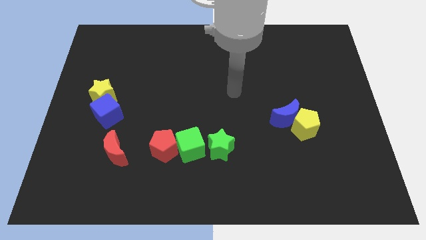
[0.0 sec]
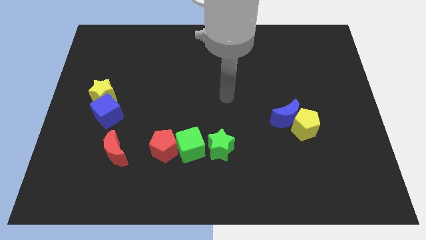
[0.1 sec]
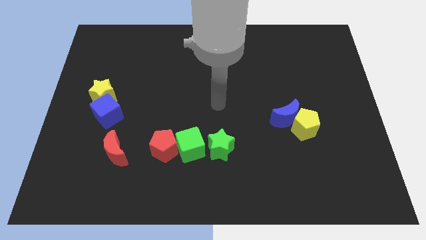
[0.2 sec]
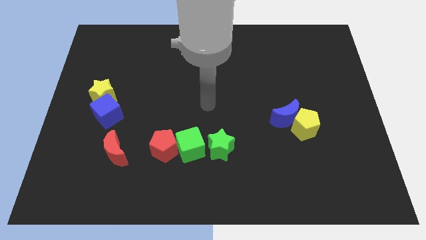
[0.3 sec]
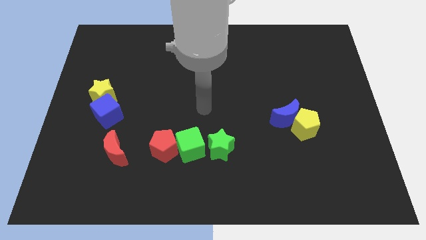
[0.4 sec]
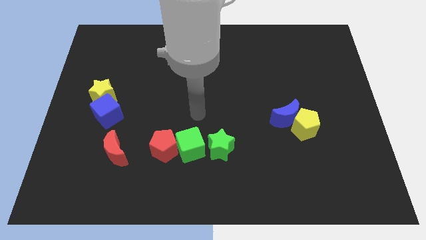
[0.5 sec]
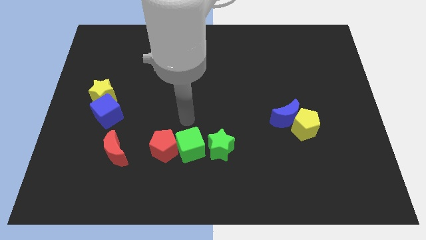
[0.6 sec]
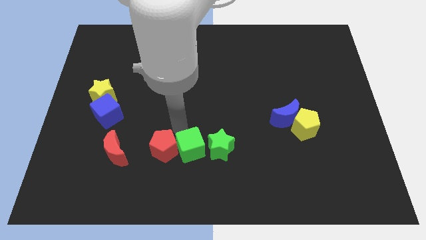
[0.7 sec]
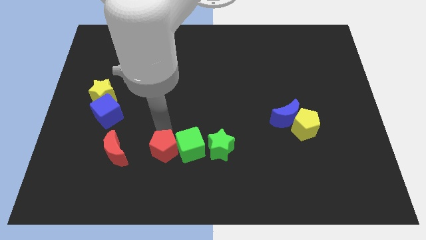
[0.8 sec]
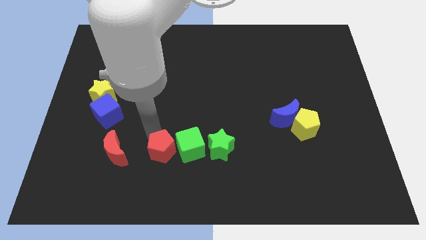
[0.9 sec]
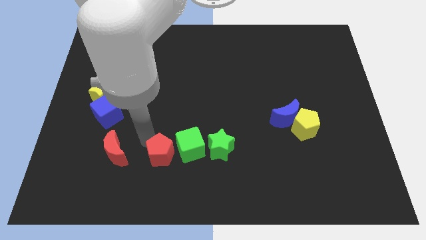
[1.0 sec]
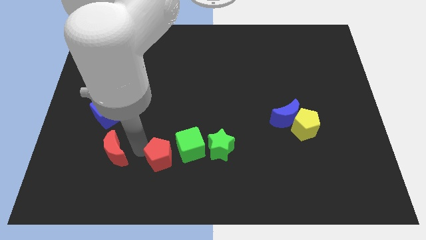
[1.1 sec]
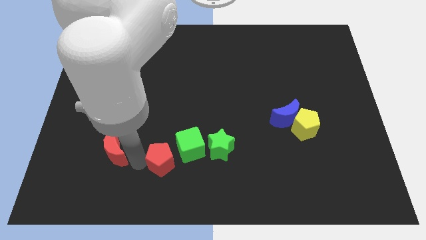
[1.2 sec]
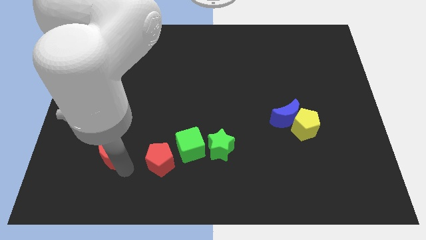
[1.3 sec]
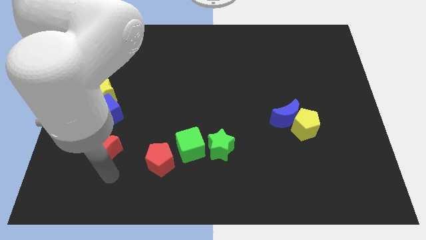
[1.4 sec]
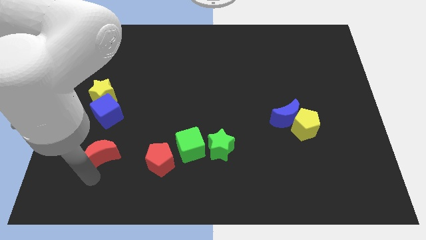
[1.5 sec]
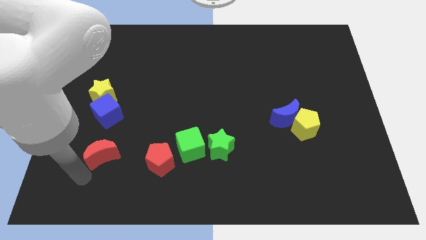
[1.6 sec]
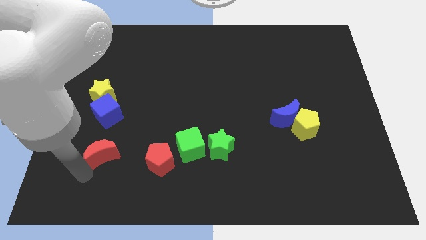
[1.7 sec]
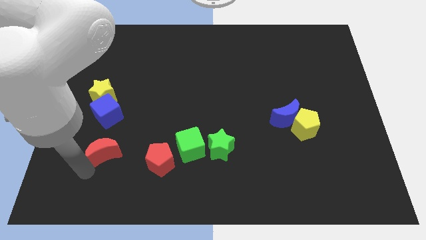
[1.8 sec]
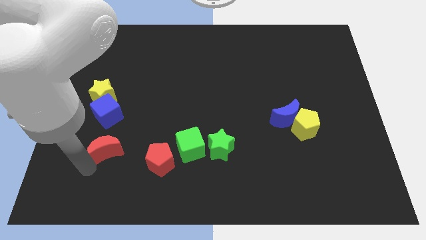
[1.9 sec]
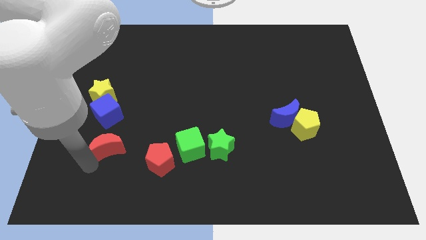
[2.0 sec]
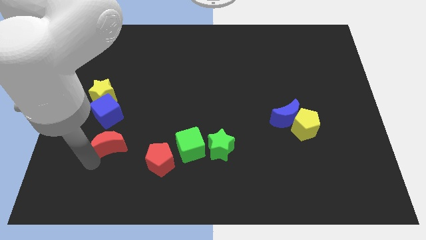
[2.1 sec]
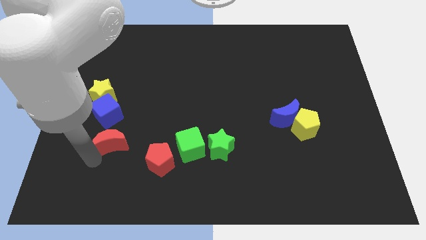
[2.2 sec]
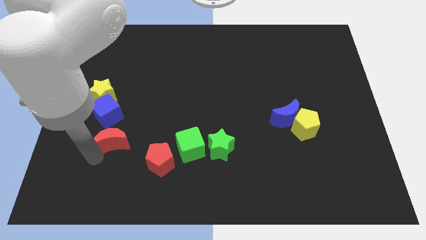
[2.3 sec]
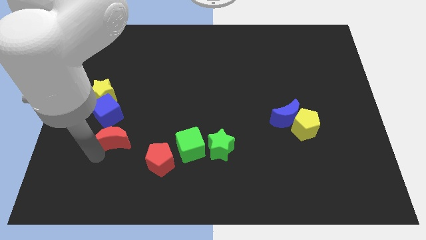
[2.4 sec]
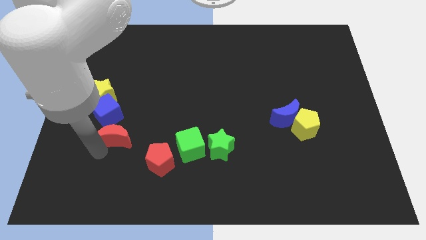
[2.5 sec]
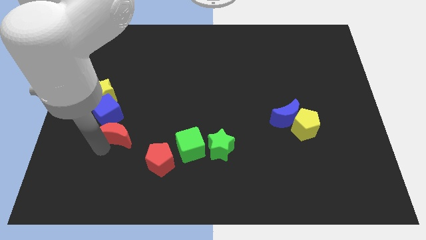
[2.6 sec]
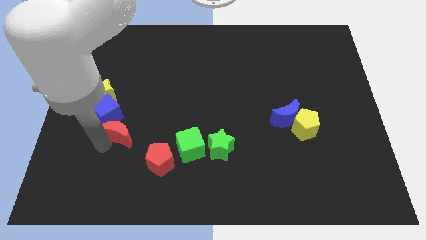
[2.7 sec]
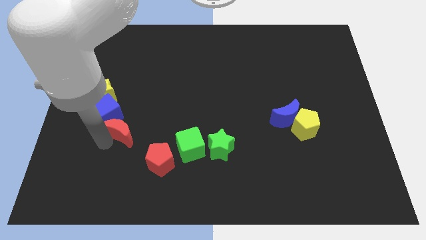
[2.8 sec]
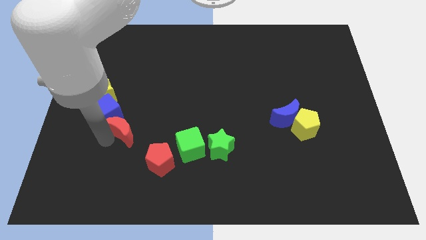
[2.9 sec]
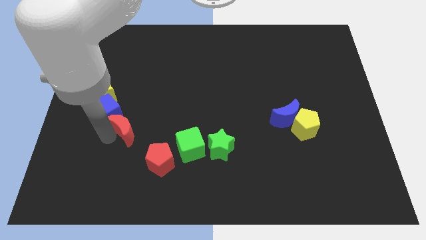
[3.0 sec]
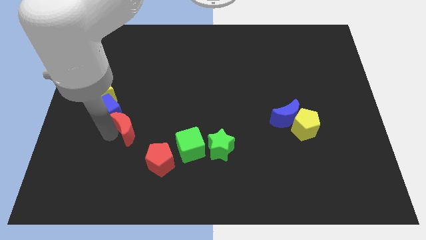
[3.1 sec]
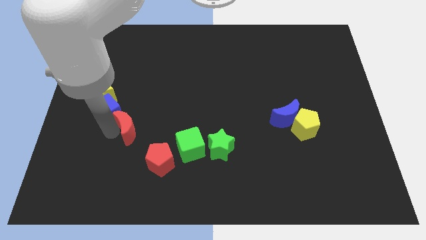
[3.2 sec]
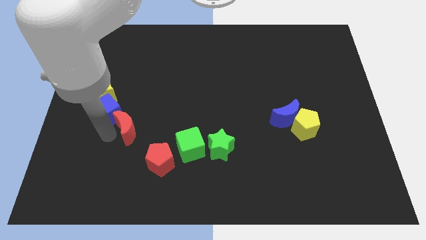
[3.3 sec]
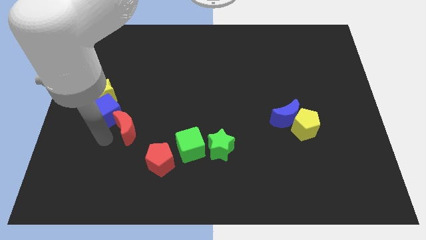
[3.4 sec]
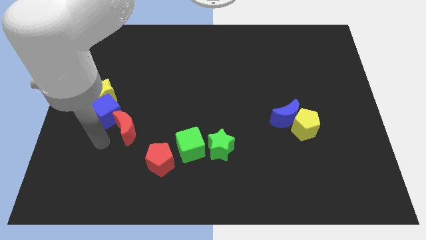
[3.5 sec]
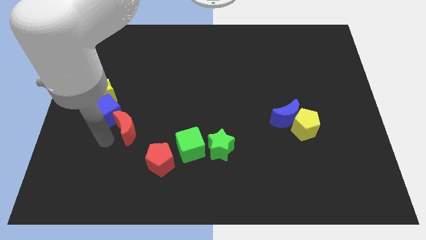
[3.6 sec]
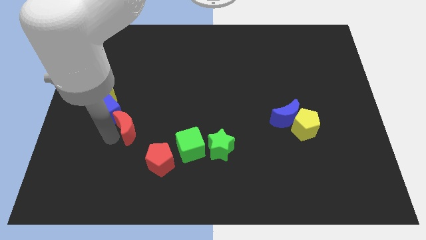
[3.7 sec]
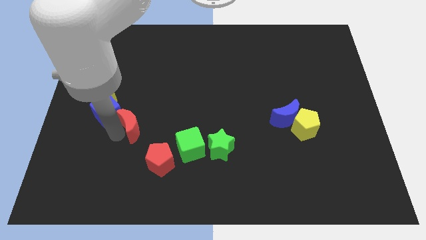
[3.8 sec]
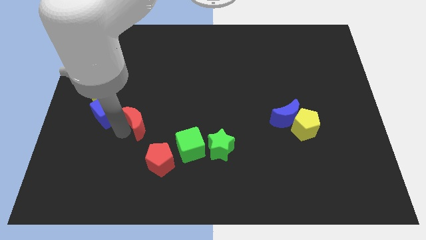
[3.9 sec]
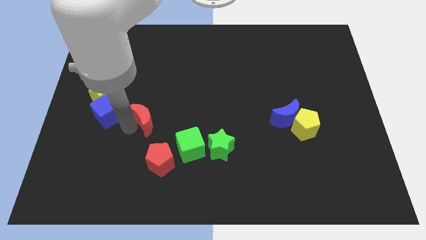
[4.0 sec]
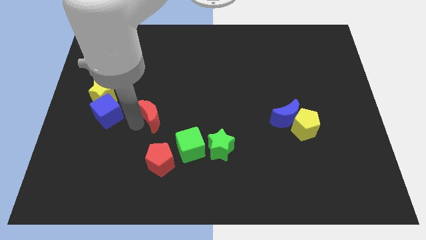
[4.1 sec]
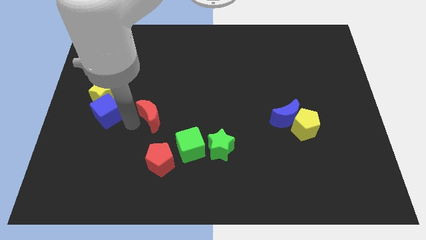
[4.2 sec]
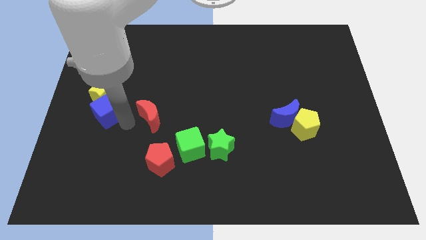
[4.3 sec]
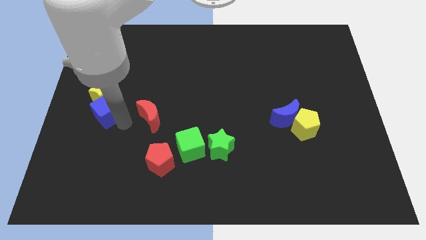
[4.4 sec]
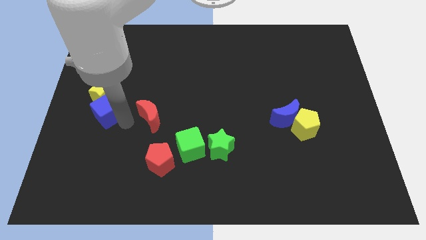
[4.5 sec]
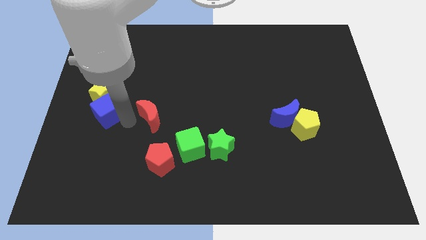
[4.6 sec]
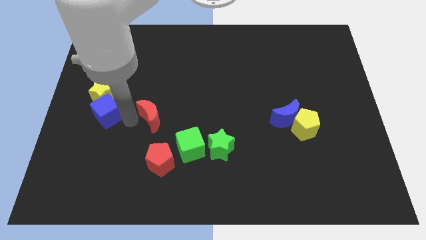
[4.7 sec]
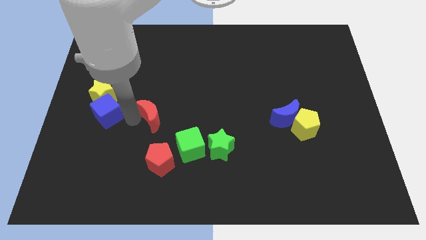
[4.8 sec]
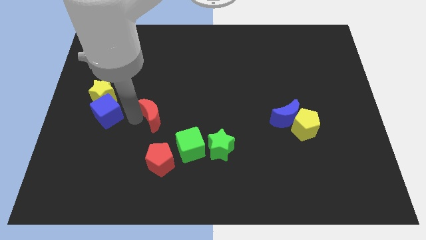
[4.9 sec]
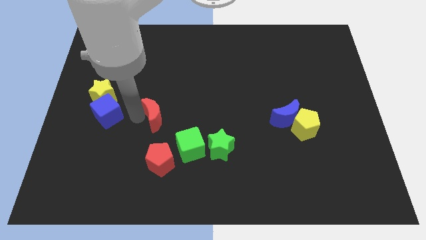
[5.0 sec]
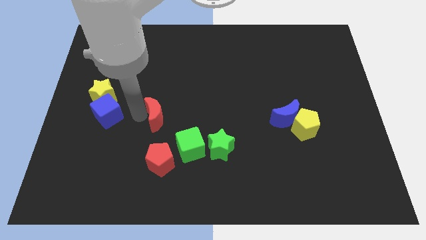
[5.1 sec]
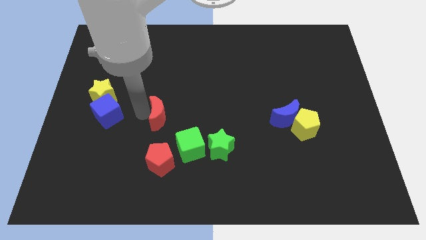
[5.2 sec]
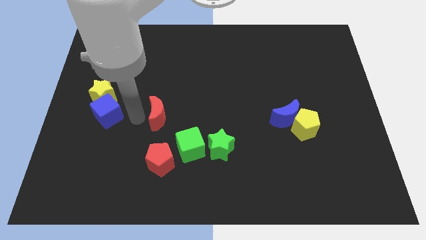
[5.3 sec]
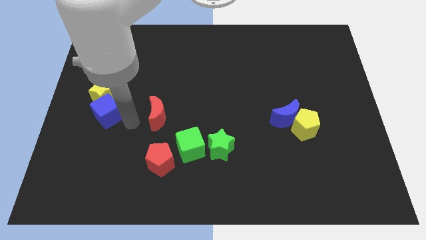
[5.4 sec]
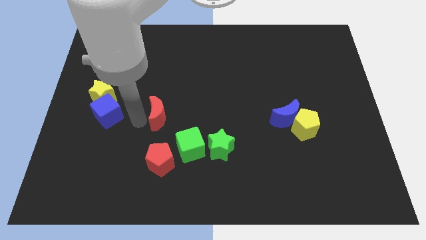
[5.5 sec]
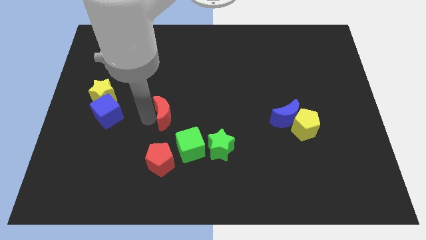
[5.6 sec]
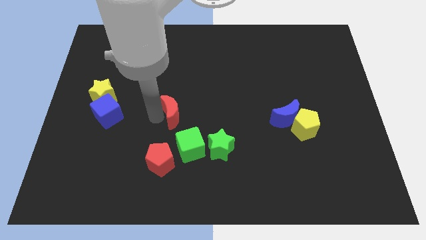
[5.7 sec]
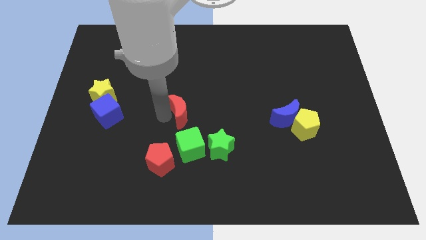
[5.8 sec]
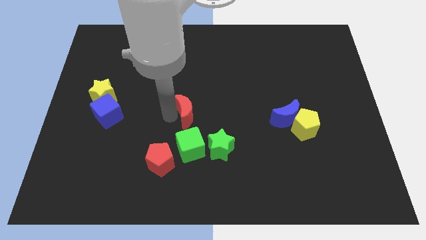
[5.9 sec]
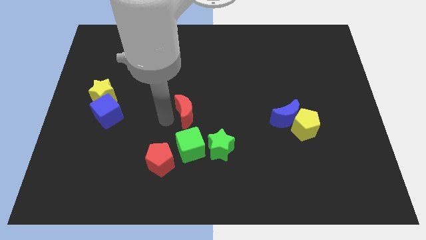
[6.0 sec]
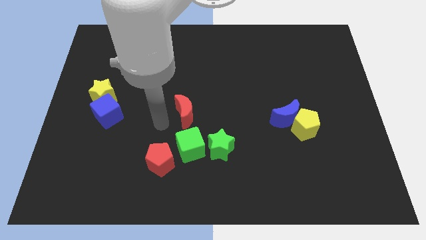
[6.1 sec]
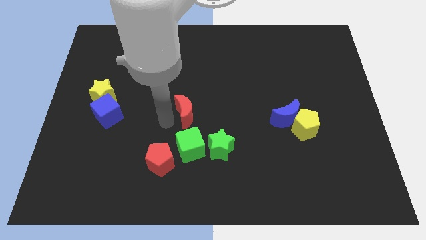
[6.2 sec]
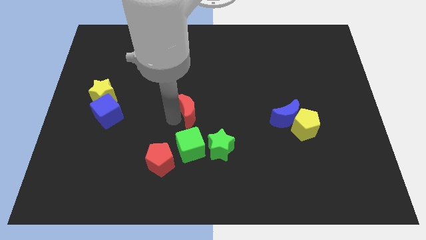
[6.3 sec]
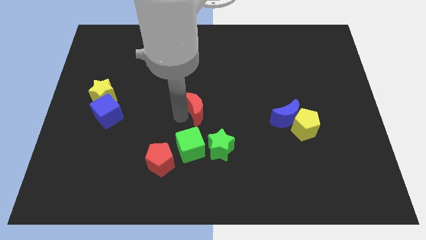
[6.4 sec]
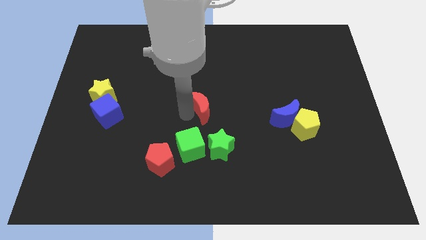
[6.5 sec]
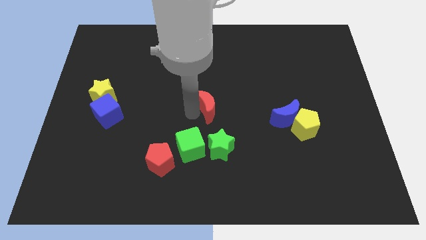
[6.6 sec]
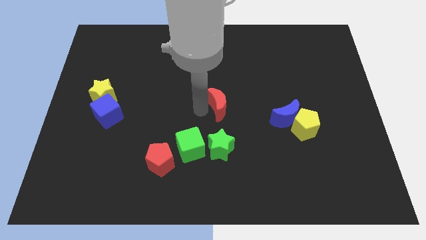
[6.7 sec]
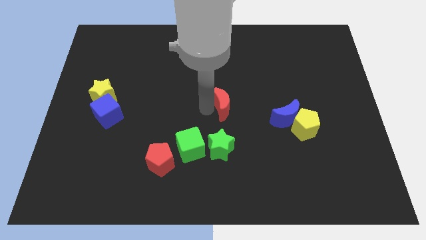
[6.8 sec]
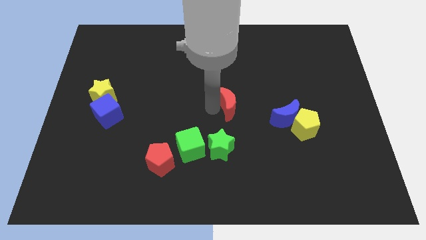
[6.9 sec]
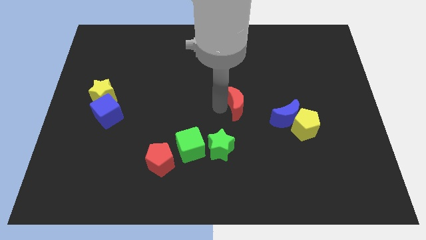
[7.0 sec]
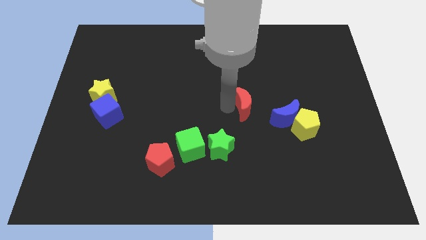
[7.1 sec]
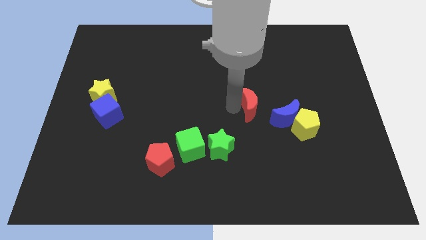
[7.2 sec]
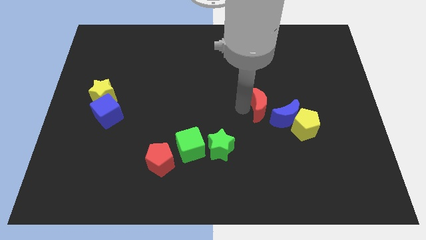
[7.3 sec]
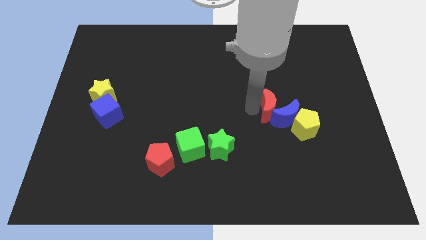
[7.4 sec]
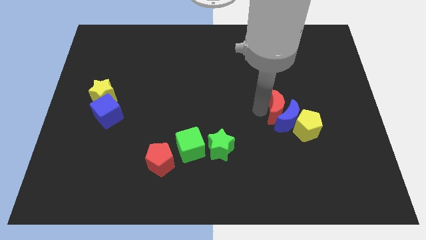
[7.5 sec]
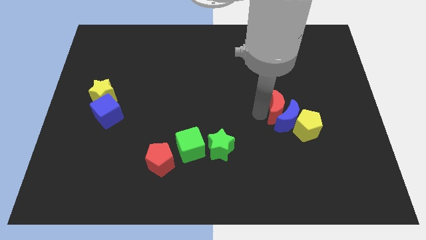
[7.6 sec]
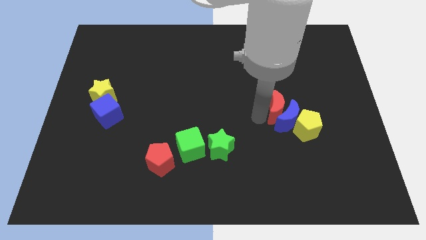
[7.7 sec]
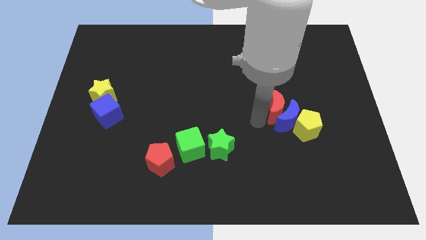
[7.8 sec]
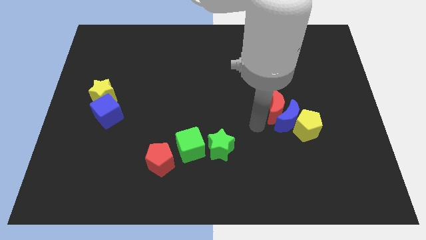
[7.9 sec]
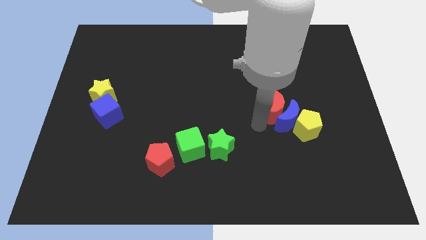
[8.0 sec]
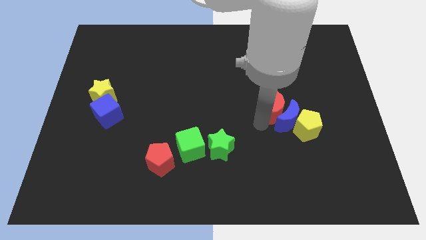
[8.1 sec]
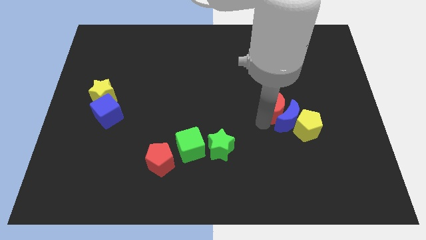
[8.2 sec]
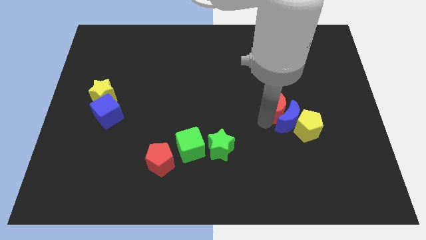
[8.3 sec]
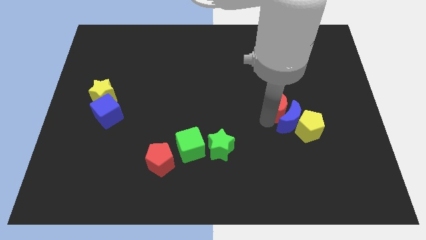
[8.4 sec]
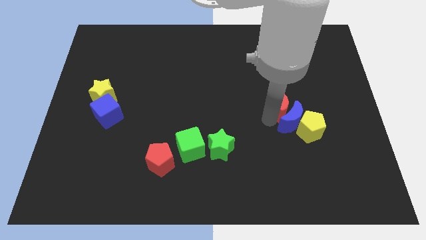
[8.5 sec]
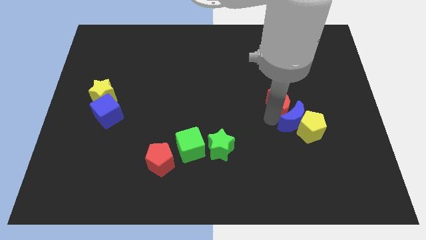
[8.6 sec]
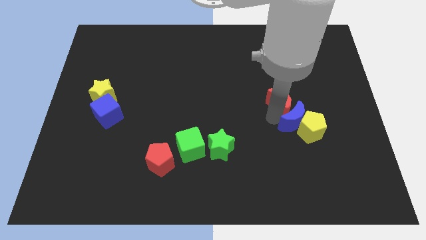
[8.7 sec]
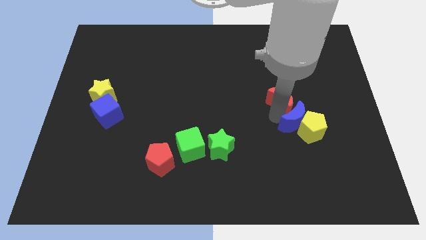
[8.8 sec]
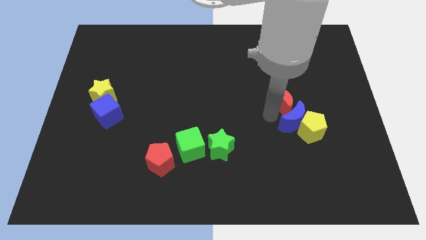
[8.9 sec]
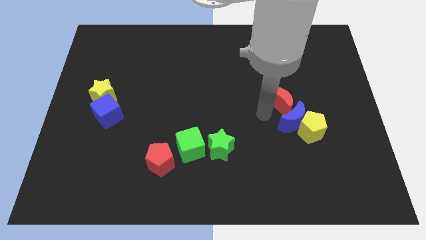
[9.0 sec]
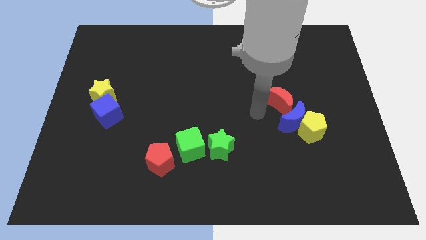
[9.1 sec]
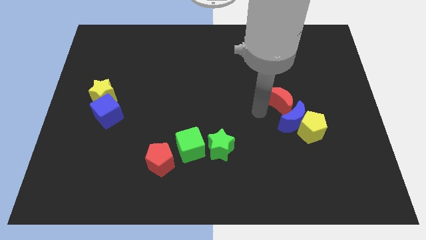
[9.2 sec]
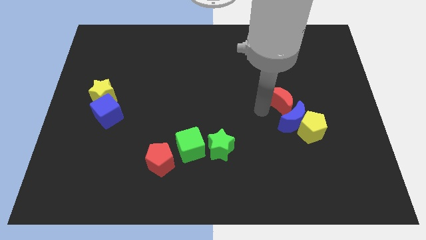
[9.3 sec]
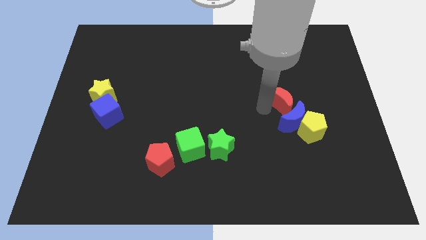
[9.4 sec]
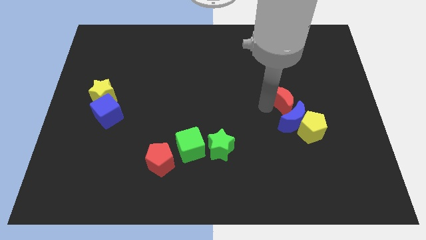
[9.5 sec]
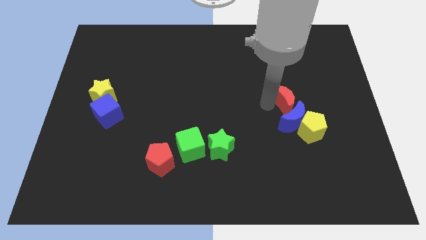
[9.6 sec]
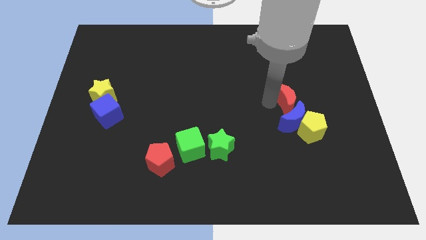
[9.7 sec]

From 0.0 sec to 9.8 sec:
move the red moon above the yellow pentagon
